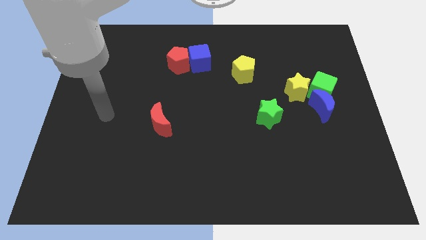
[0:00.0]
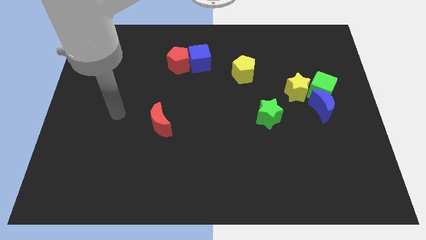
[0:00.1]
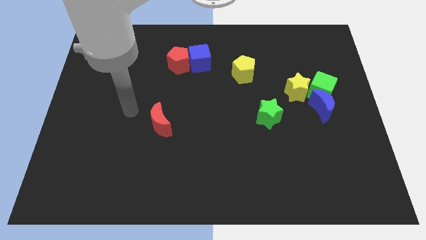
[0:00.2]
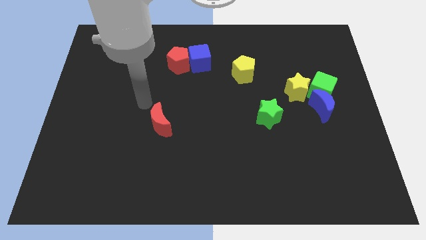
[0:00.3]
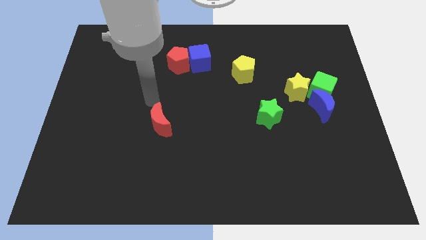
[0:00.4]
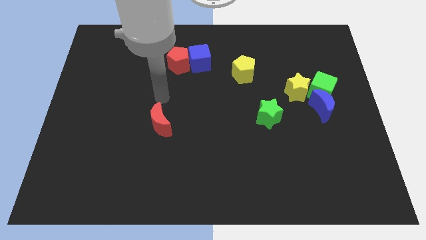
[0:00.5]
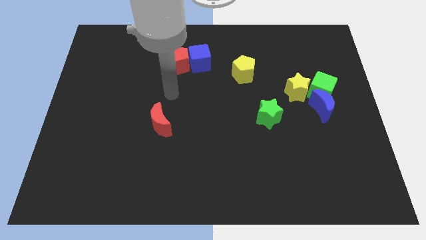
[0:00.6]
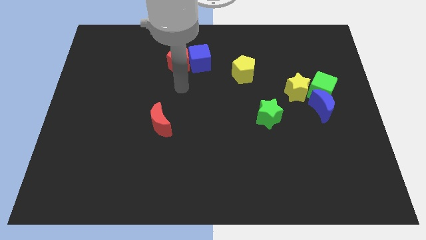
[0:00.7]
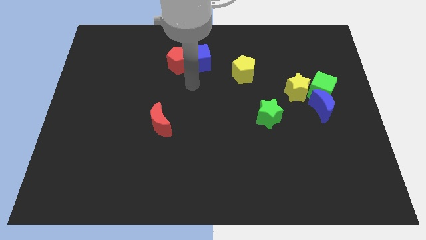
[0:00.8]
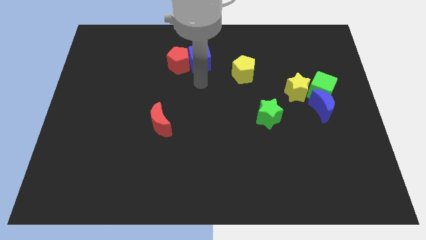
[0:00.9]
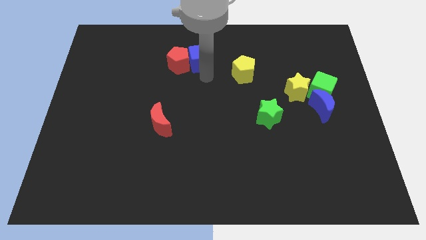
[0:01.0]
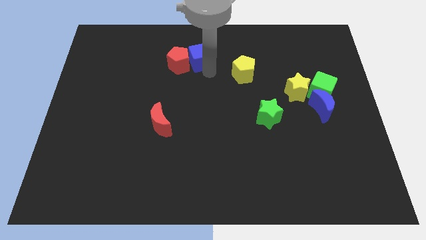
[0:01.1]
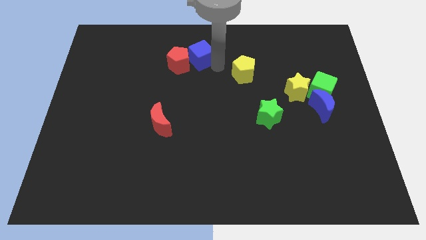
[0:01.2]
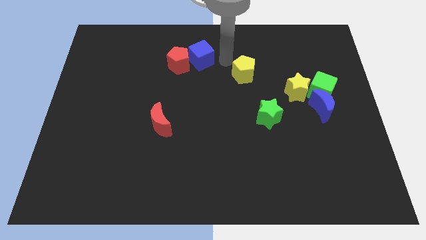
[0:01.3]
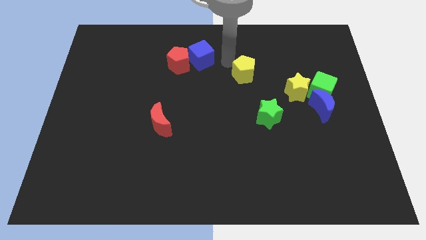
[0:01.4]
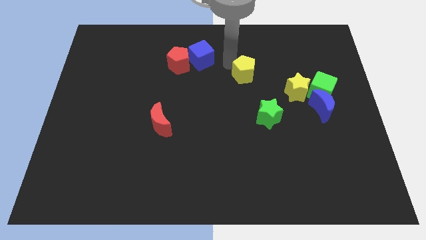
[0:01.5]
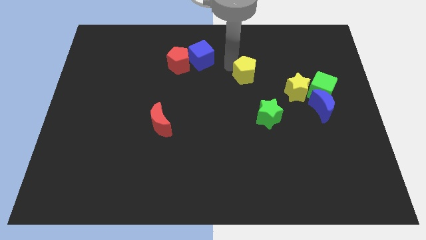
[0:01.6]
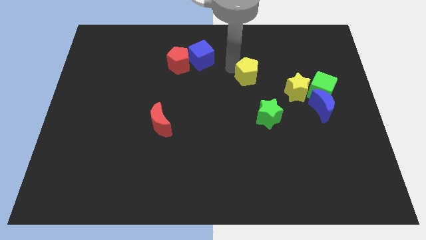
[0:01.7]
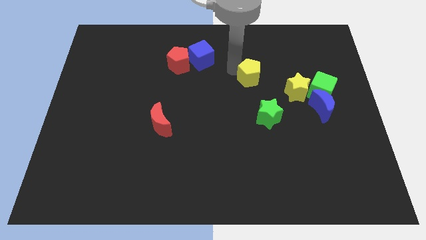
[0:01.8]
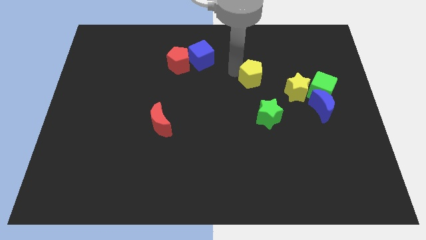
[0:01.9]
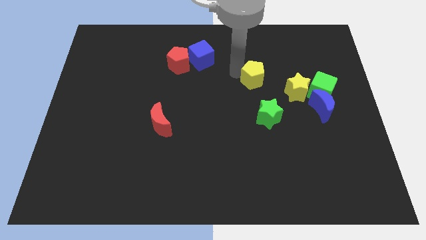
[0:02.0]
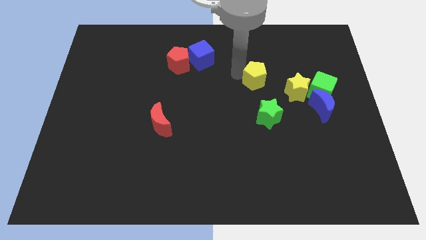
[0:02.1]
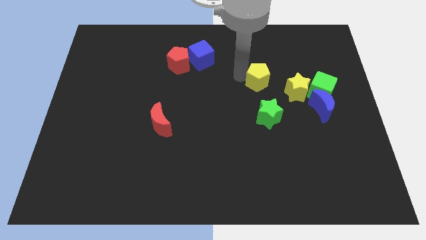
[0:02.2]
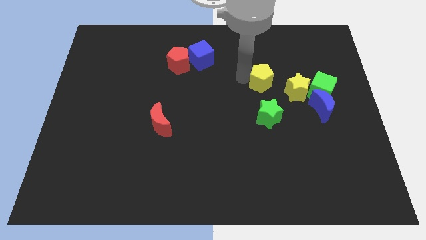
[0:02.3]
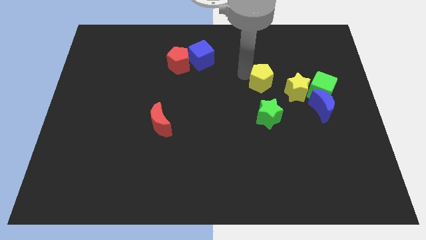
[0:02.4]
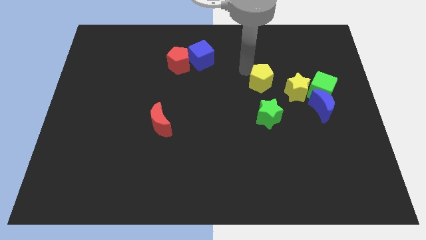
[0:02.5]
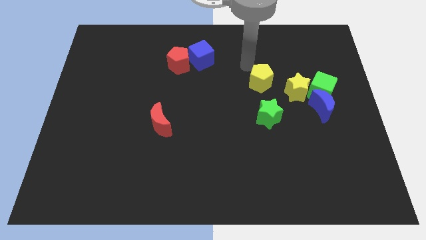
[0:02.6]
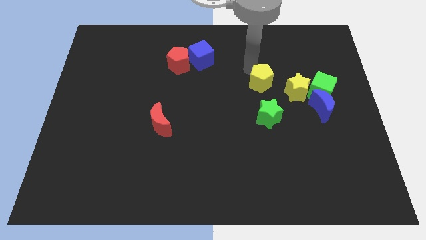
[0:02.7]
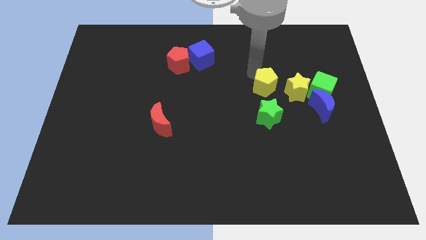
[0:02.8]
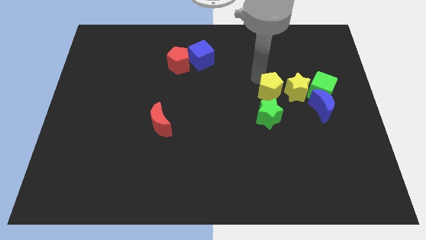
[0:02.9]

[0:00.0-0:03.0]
slightly push the yellow pentagon downwards and then right

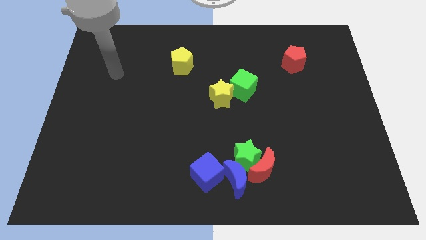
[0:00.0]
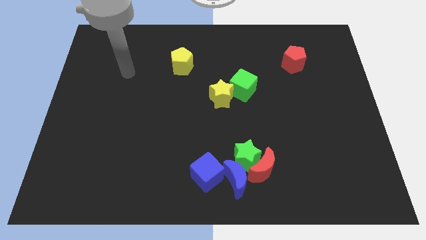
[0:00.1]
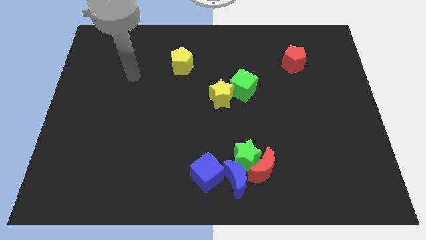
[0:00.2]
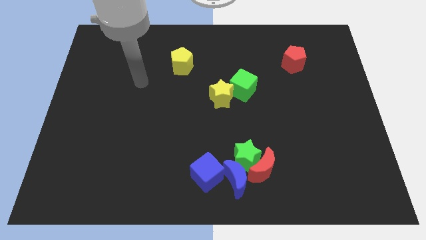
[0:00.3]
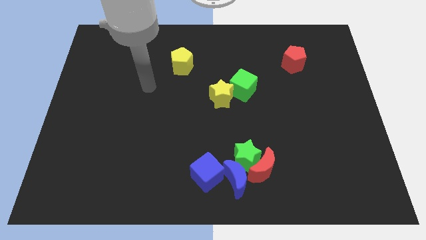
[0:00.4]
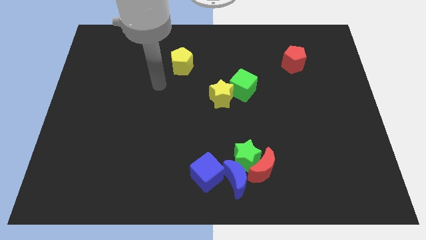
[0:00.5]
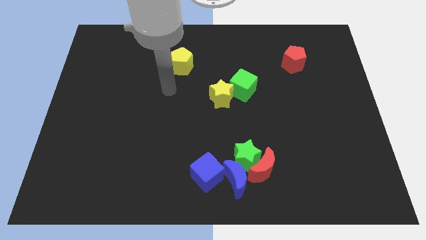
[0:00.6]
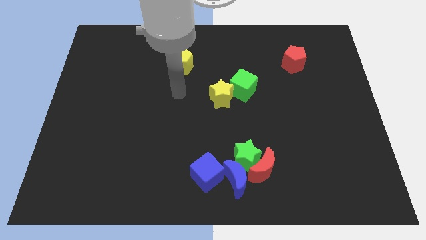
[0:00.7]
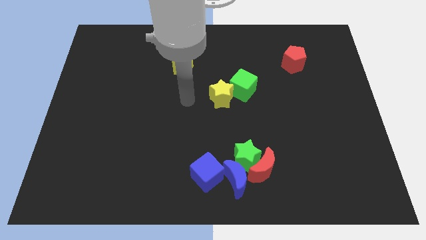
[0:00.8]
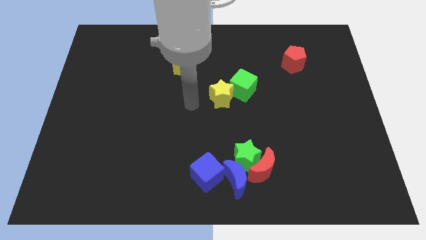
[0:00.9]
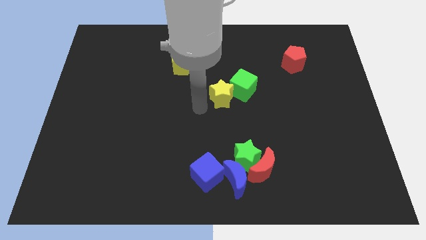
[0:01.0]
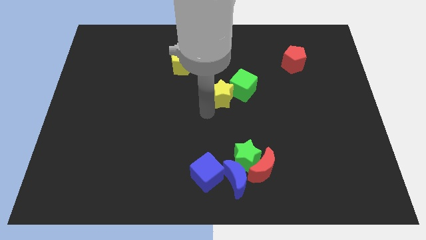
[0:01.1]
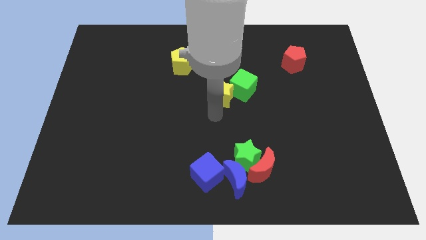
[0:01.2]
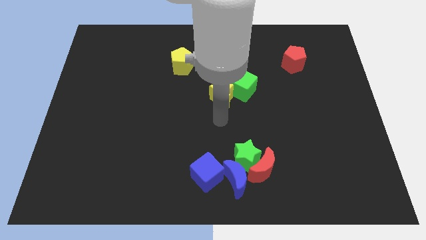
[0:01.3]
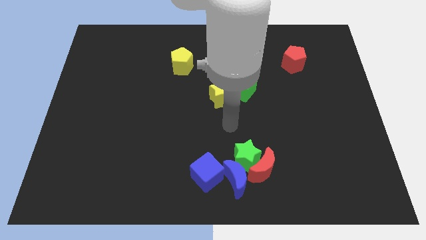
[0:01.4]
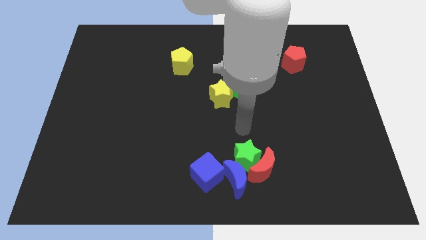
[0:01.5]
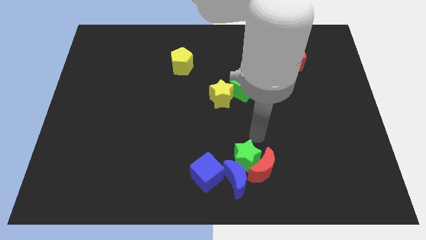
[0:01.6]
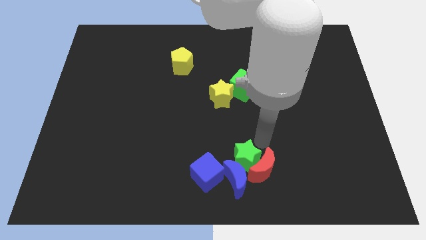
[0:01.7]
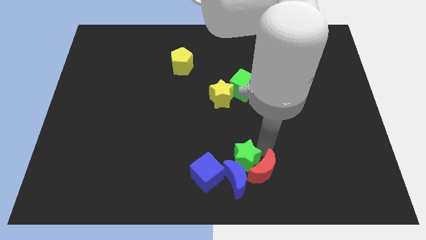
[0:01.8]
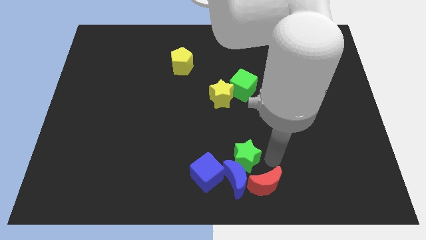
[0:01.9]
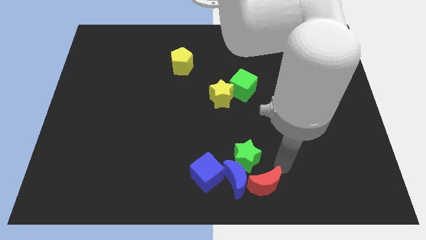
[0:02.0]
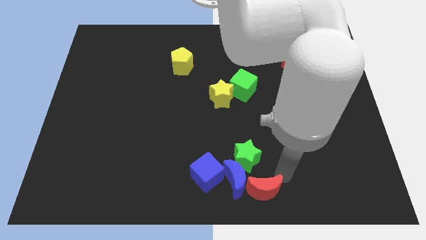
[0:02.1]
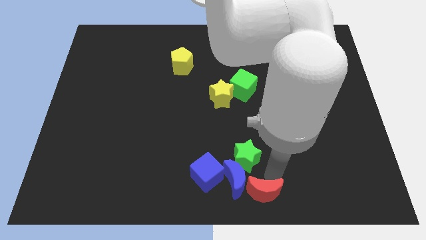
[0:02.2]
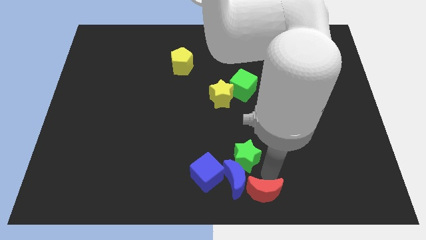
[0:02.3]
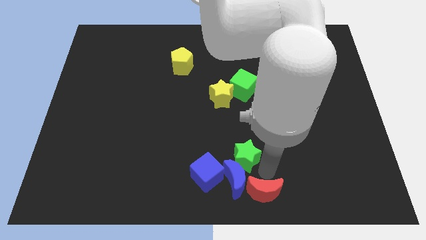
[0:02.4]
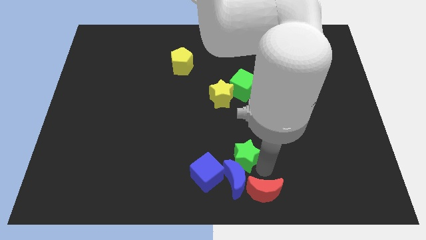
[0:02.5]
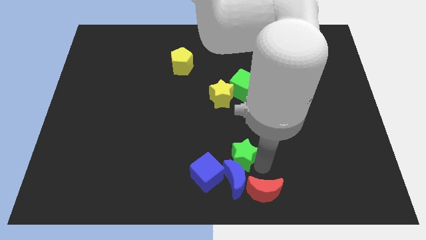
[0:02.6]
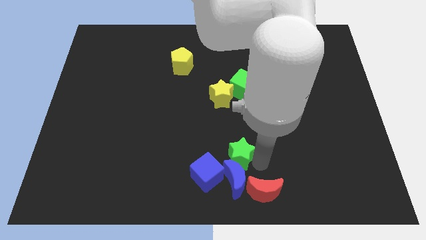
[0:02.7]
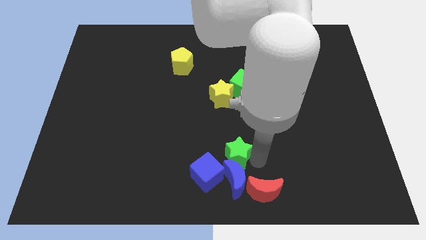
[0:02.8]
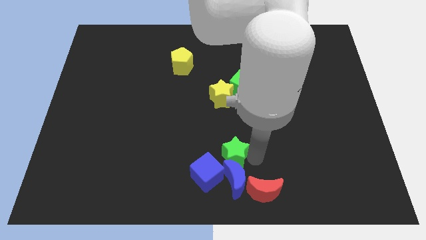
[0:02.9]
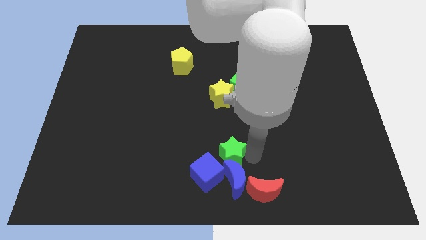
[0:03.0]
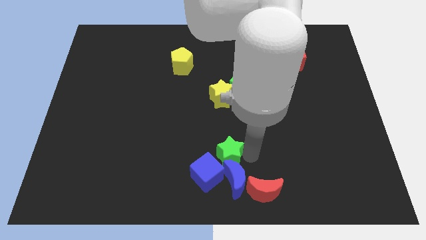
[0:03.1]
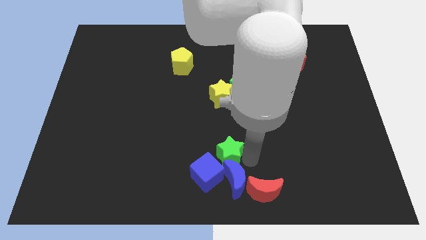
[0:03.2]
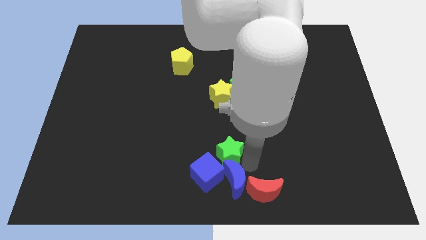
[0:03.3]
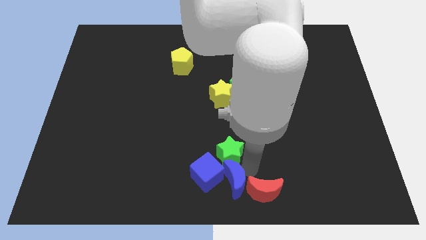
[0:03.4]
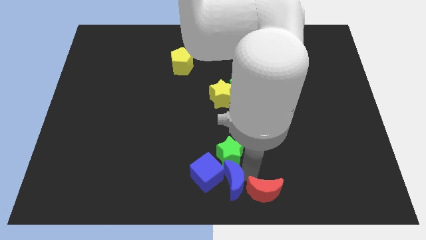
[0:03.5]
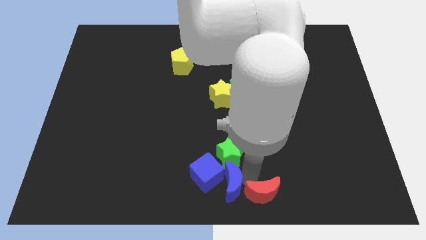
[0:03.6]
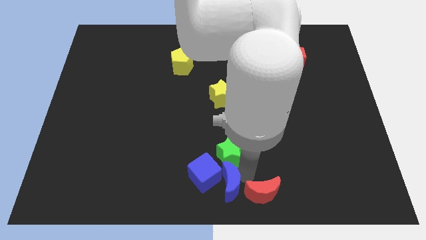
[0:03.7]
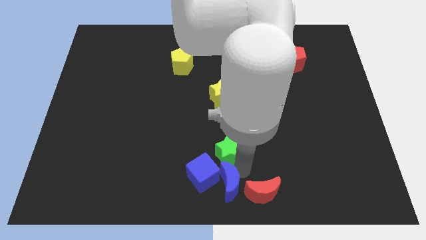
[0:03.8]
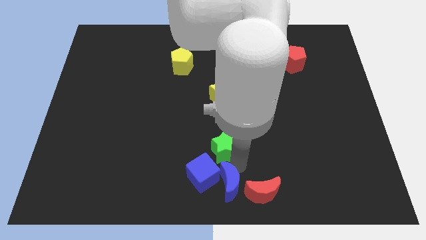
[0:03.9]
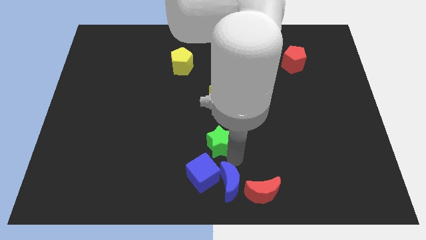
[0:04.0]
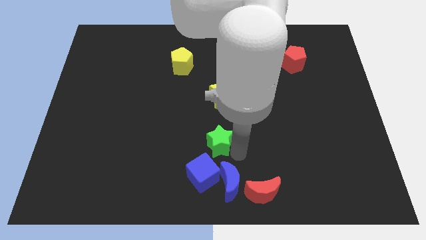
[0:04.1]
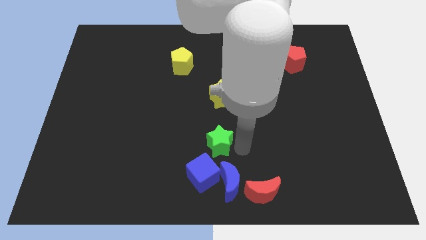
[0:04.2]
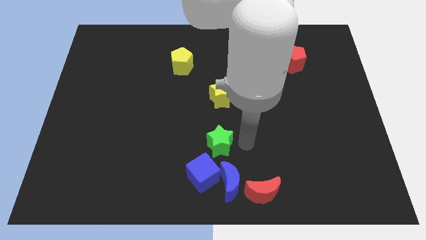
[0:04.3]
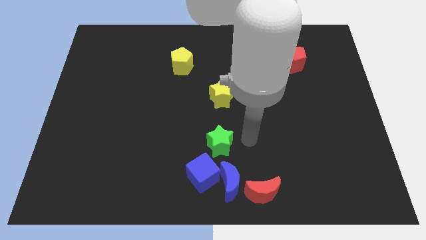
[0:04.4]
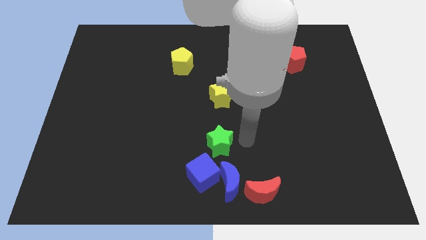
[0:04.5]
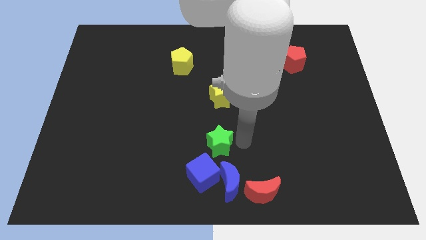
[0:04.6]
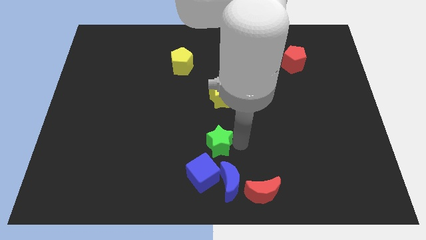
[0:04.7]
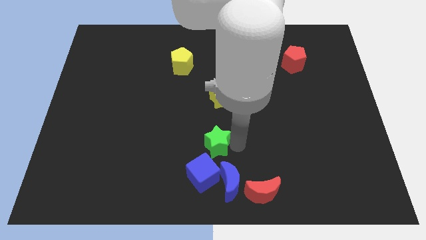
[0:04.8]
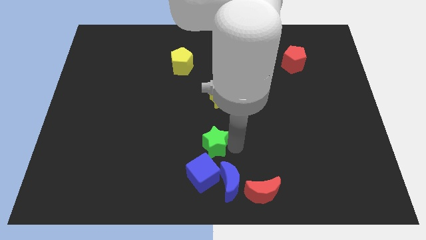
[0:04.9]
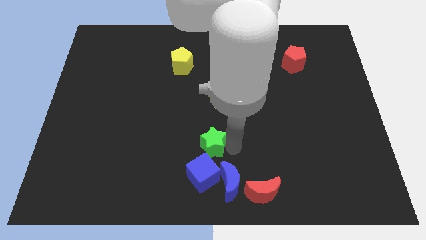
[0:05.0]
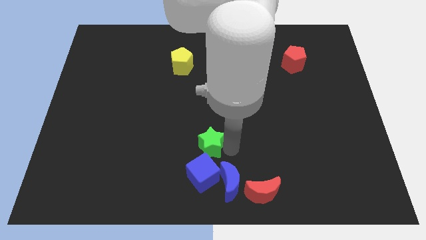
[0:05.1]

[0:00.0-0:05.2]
move the green star to the left a bit

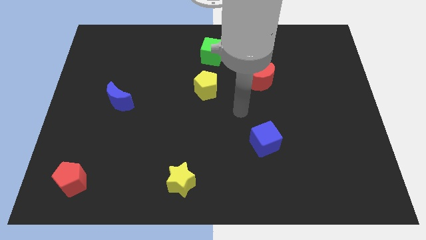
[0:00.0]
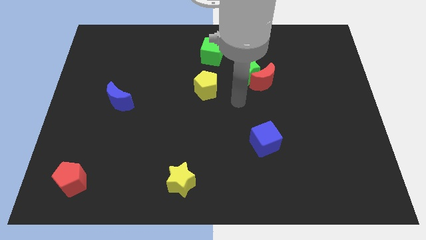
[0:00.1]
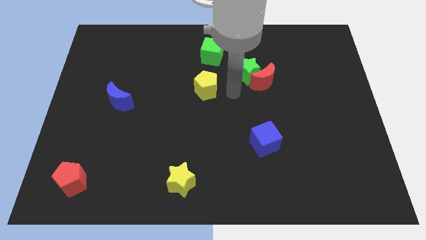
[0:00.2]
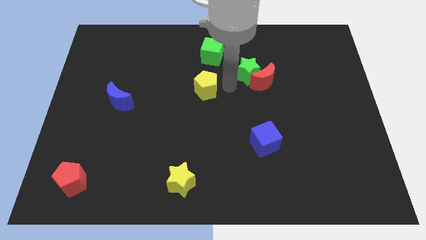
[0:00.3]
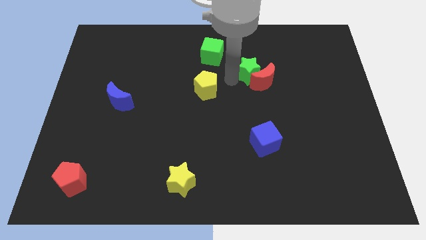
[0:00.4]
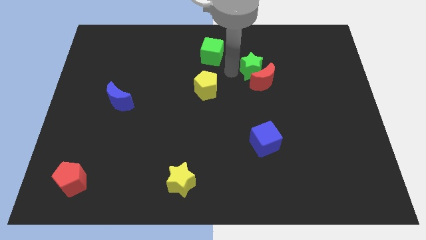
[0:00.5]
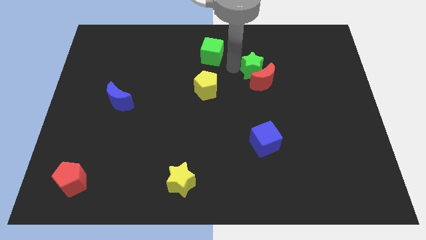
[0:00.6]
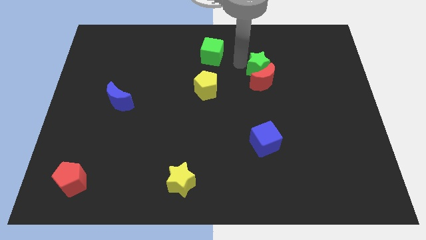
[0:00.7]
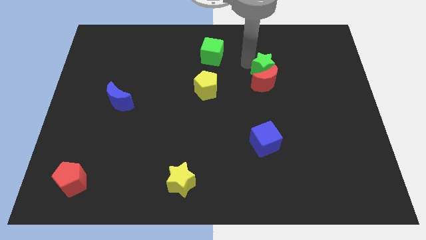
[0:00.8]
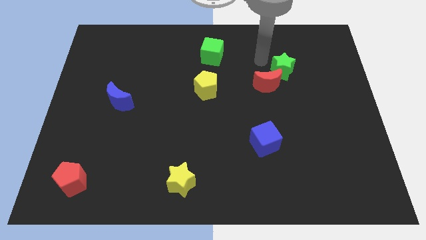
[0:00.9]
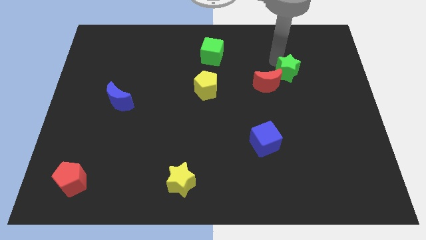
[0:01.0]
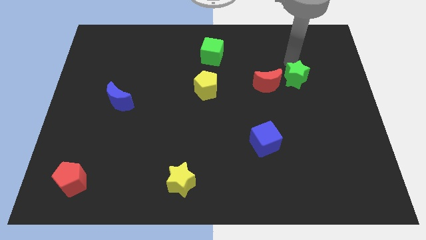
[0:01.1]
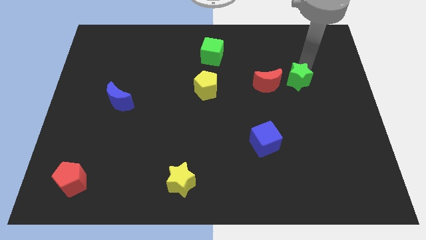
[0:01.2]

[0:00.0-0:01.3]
push the green star downwards and to the right somewhat
